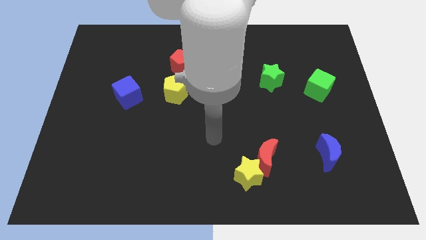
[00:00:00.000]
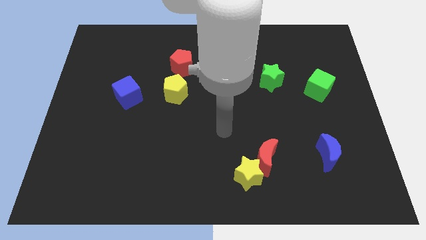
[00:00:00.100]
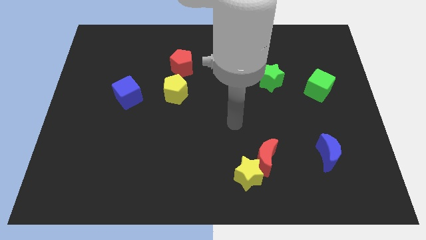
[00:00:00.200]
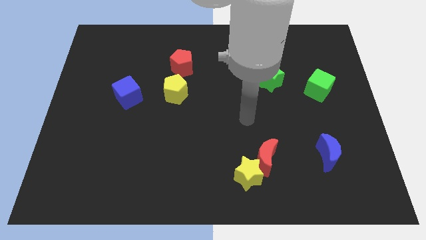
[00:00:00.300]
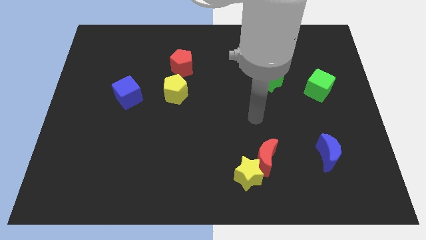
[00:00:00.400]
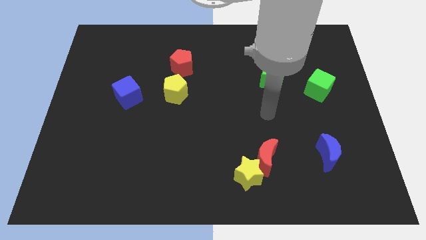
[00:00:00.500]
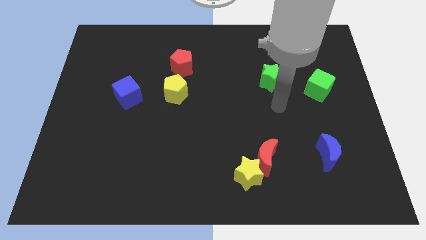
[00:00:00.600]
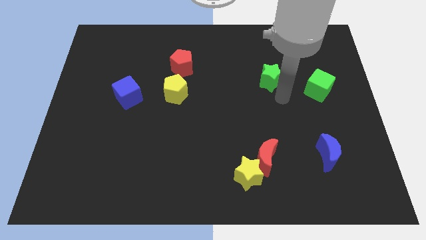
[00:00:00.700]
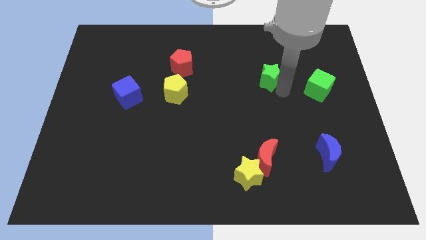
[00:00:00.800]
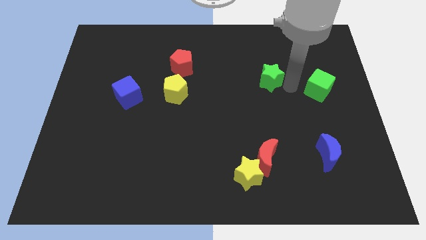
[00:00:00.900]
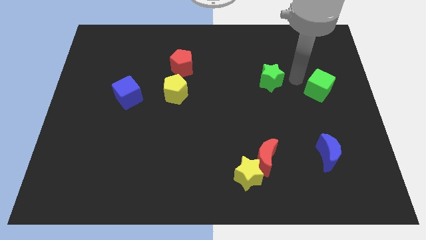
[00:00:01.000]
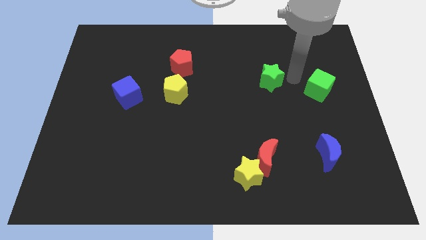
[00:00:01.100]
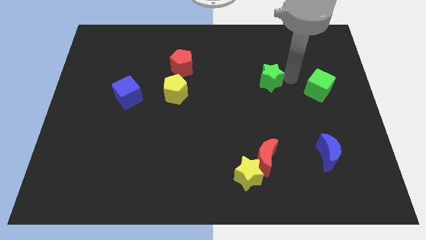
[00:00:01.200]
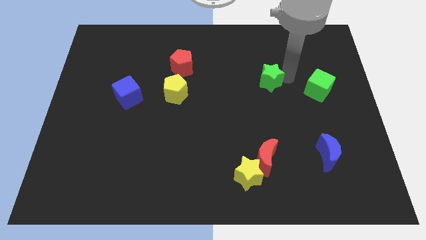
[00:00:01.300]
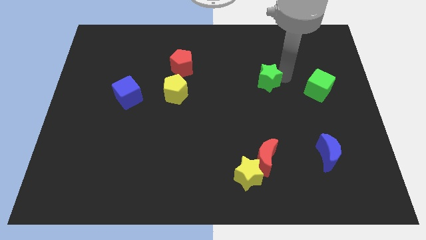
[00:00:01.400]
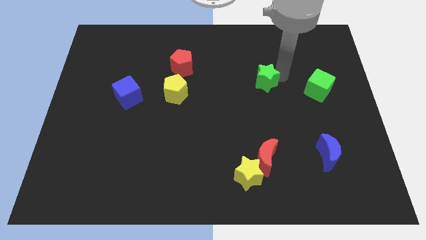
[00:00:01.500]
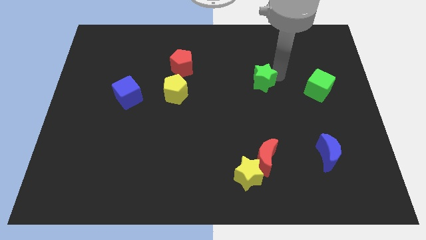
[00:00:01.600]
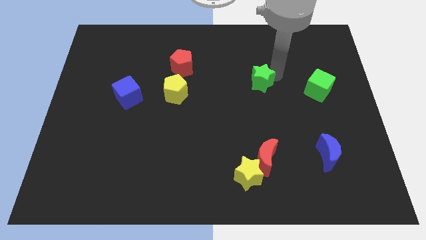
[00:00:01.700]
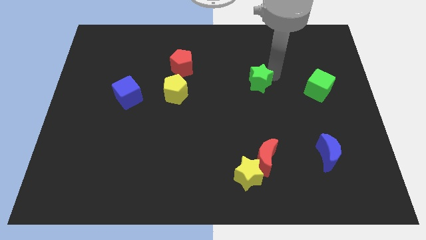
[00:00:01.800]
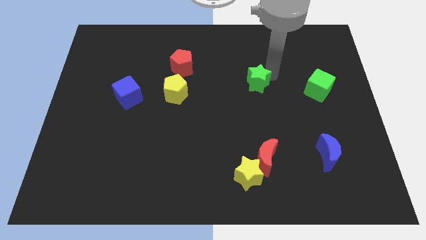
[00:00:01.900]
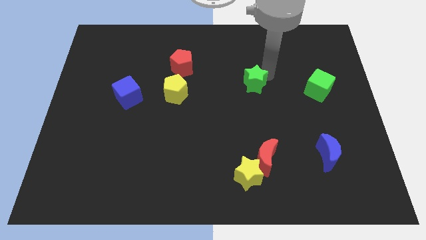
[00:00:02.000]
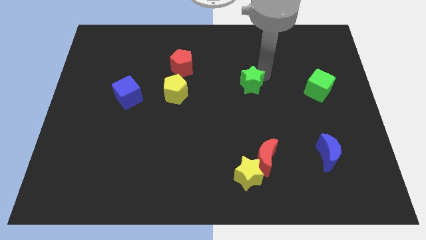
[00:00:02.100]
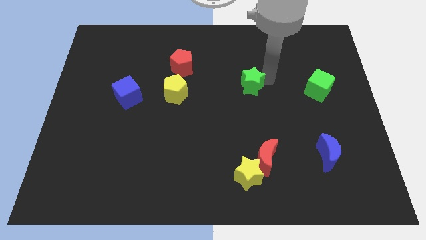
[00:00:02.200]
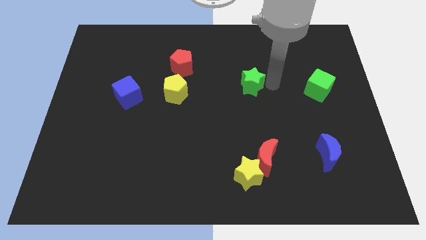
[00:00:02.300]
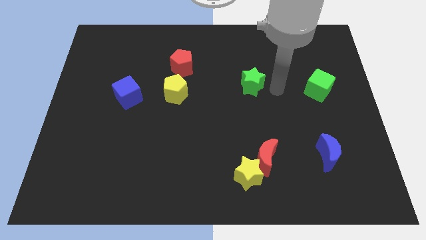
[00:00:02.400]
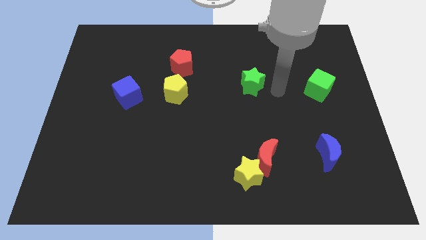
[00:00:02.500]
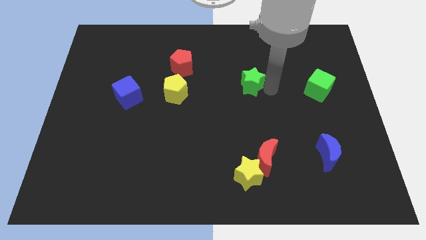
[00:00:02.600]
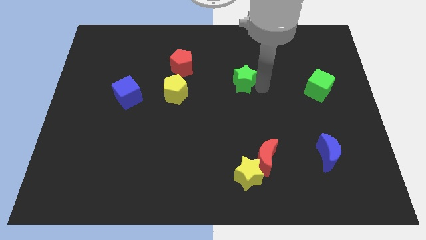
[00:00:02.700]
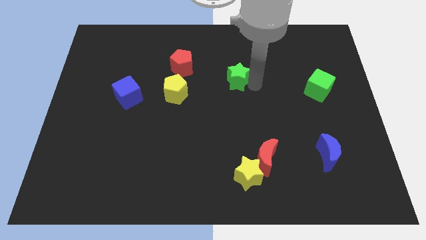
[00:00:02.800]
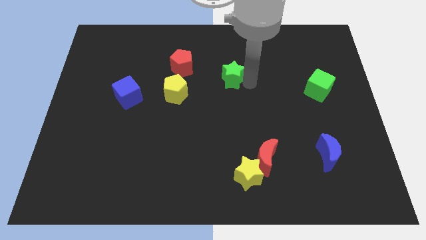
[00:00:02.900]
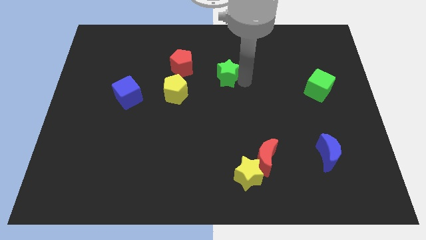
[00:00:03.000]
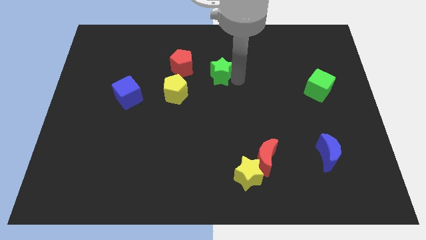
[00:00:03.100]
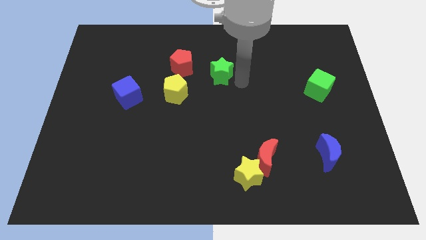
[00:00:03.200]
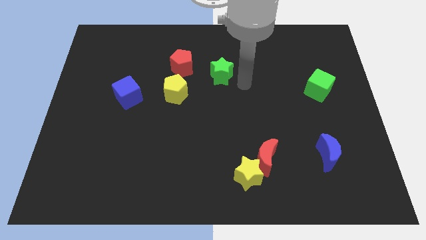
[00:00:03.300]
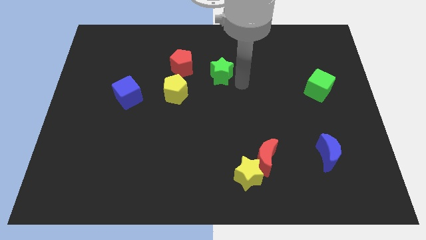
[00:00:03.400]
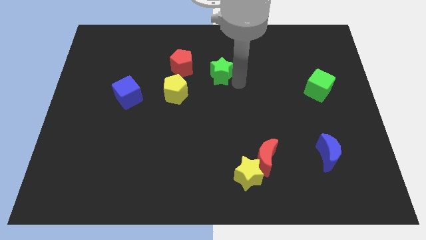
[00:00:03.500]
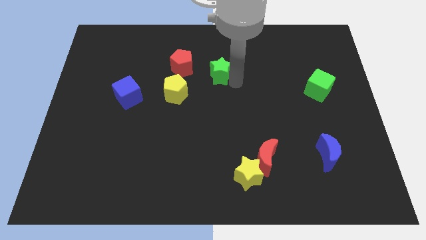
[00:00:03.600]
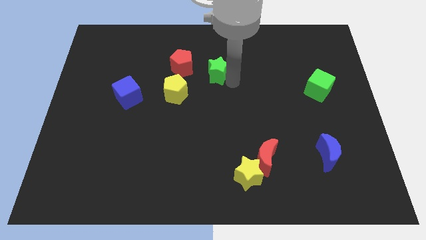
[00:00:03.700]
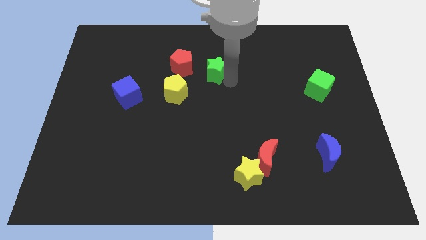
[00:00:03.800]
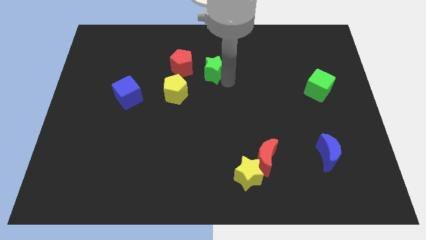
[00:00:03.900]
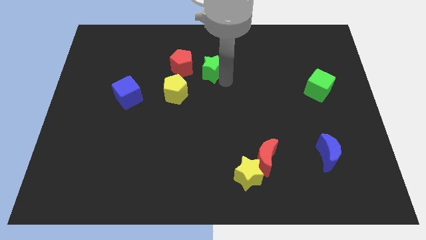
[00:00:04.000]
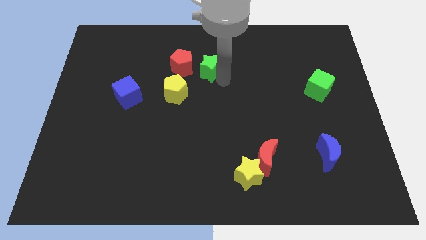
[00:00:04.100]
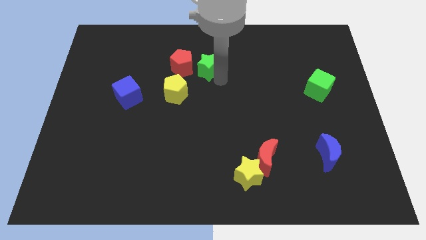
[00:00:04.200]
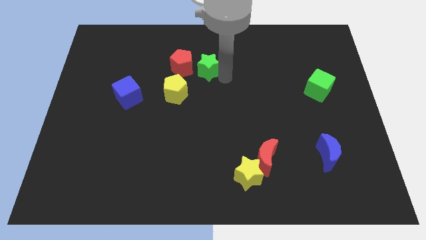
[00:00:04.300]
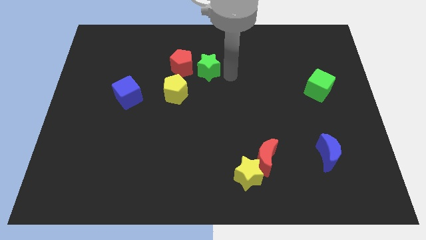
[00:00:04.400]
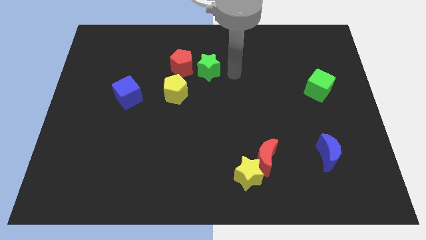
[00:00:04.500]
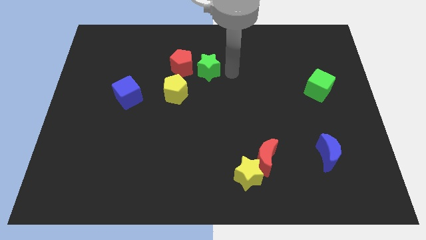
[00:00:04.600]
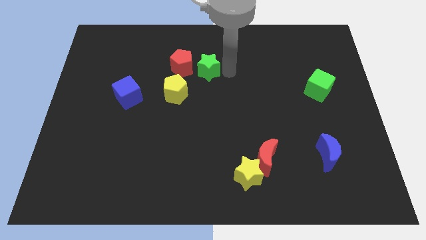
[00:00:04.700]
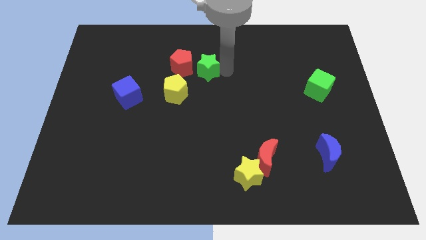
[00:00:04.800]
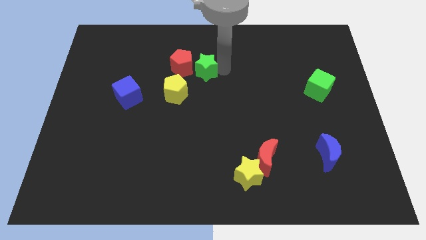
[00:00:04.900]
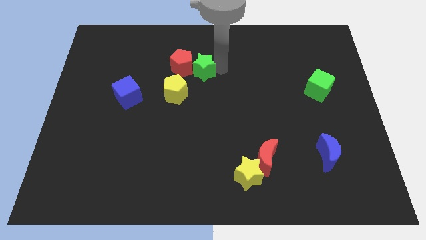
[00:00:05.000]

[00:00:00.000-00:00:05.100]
slide the green star to the red pentagon

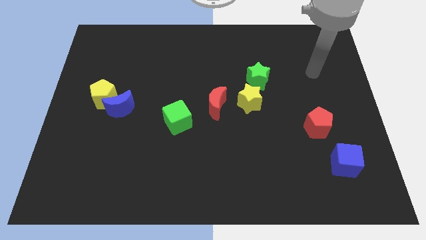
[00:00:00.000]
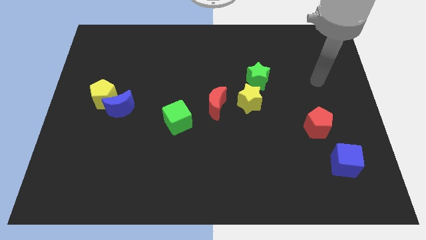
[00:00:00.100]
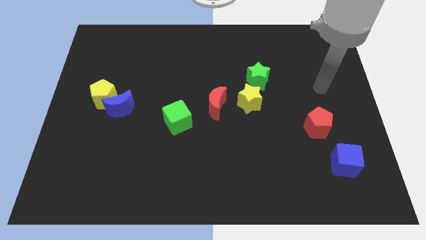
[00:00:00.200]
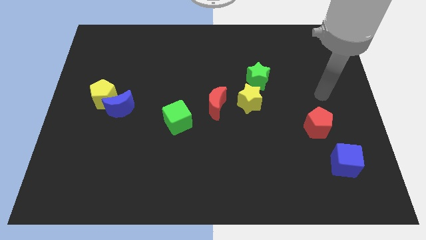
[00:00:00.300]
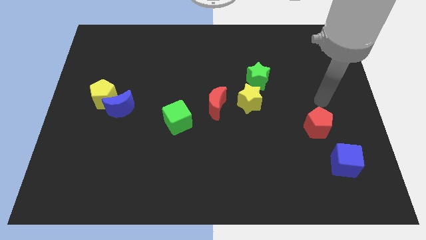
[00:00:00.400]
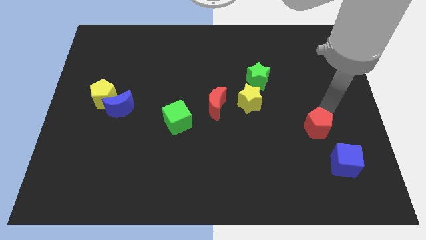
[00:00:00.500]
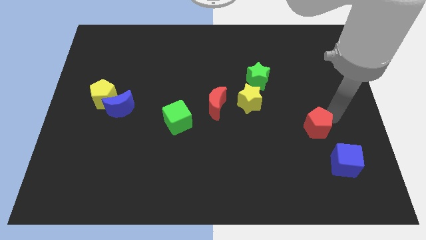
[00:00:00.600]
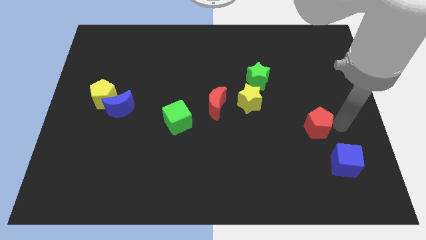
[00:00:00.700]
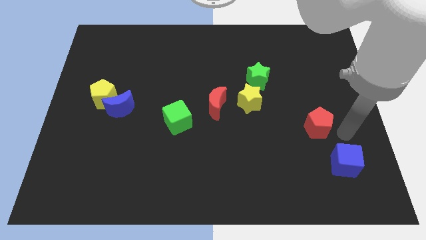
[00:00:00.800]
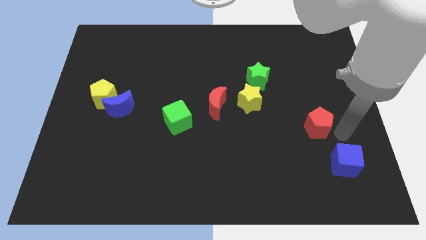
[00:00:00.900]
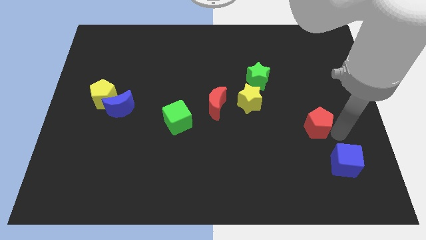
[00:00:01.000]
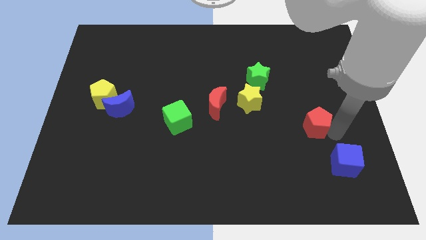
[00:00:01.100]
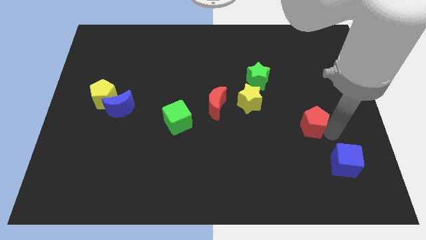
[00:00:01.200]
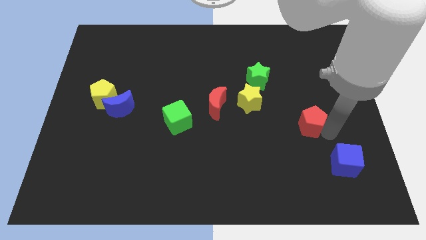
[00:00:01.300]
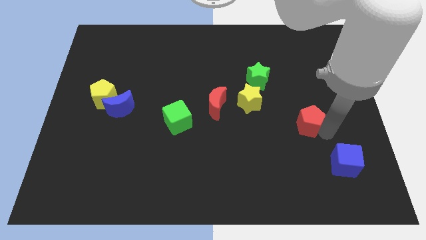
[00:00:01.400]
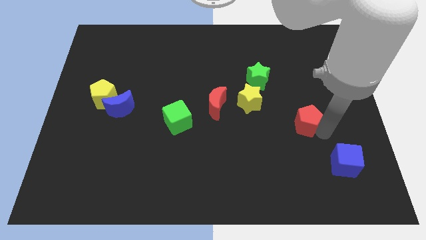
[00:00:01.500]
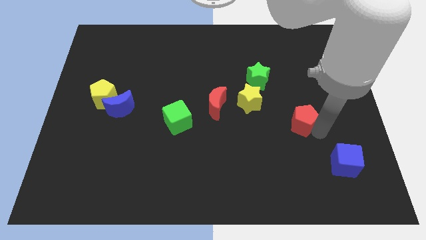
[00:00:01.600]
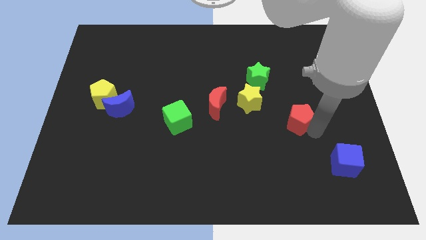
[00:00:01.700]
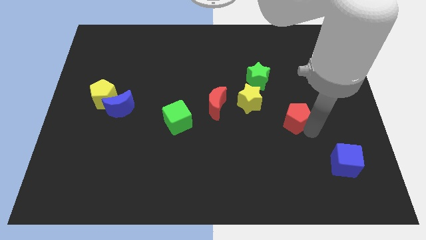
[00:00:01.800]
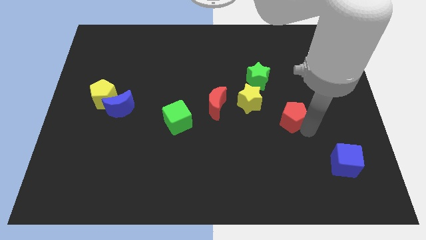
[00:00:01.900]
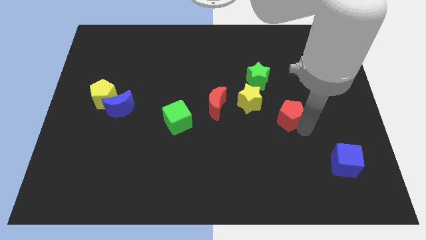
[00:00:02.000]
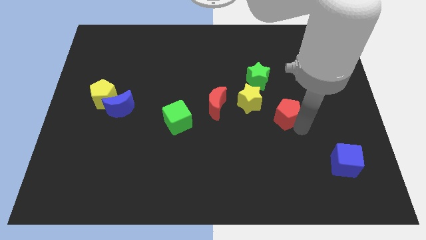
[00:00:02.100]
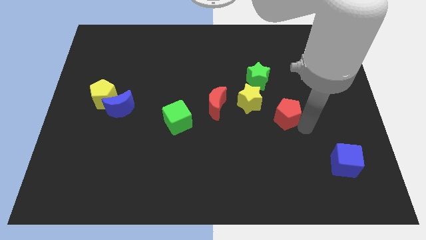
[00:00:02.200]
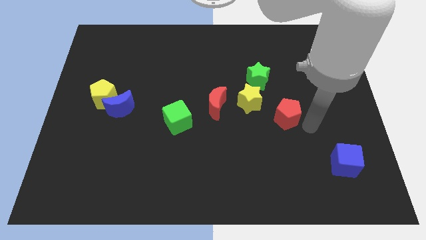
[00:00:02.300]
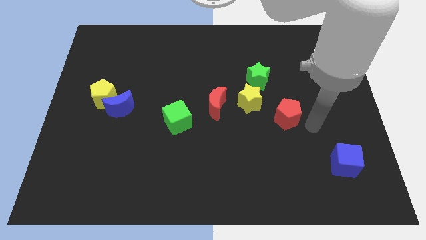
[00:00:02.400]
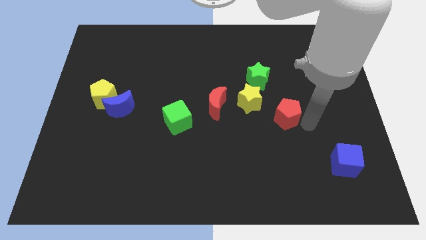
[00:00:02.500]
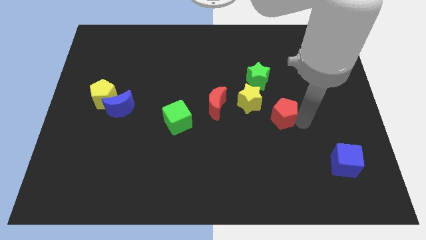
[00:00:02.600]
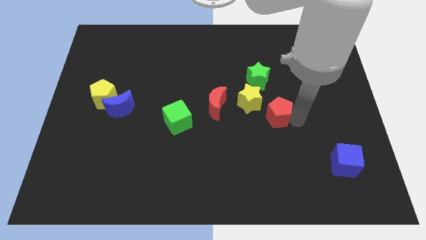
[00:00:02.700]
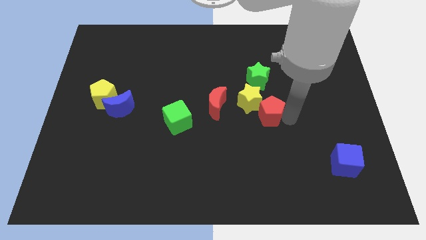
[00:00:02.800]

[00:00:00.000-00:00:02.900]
put the red pentagon next to the yellow star
